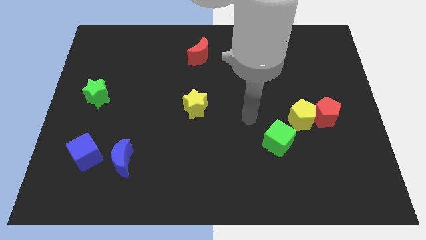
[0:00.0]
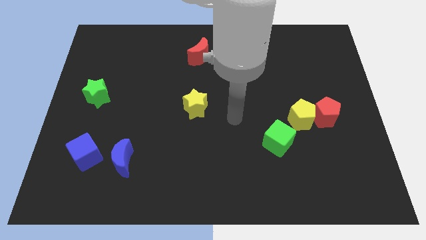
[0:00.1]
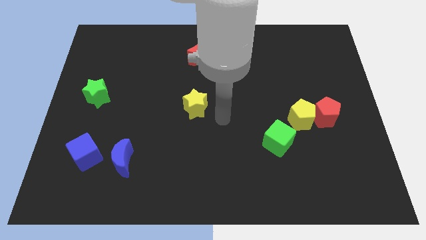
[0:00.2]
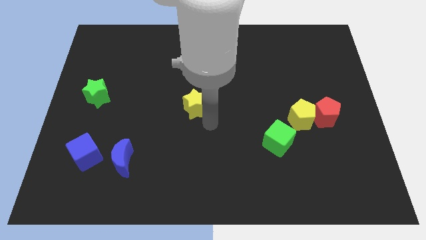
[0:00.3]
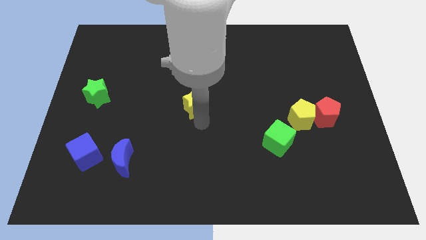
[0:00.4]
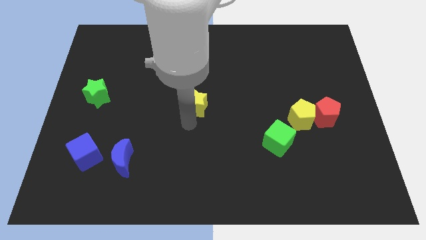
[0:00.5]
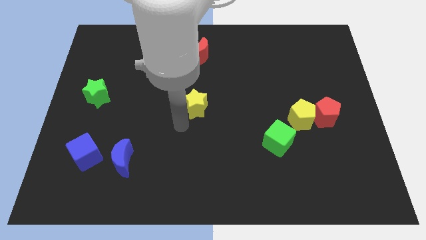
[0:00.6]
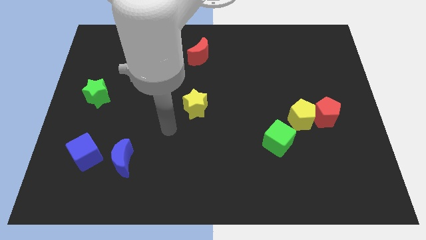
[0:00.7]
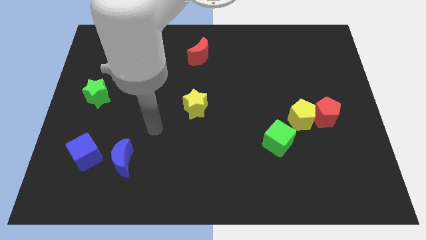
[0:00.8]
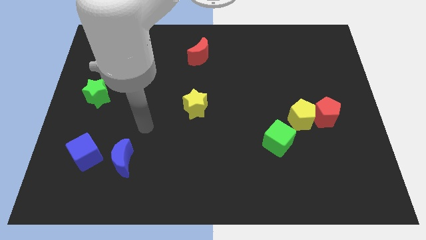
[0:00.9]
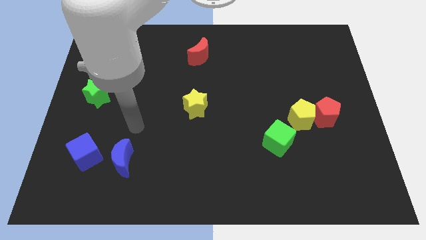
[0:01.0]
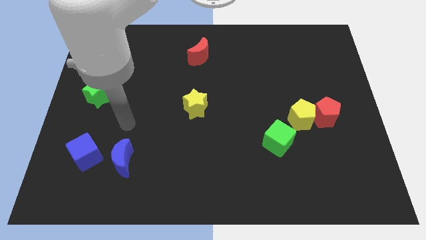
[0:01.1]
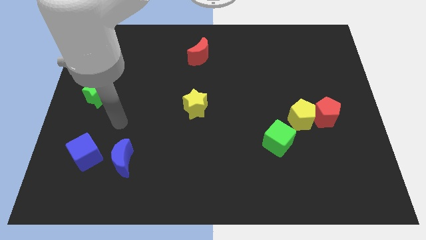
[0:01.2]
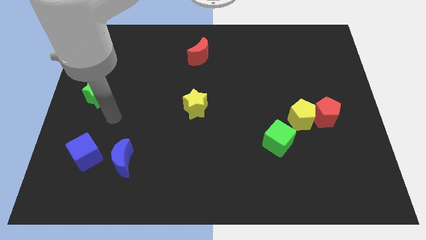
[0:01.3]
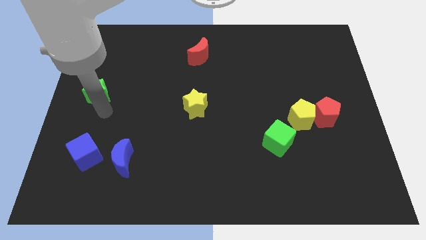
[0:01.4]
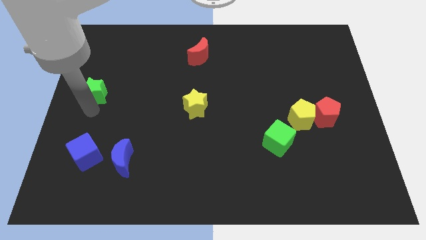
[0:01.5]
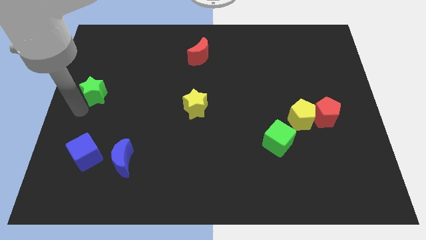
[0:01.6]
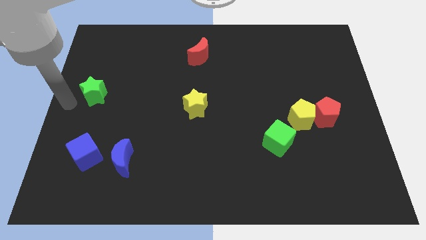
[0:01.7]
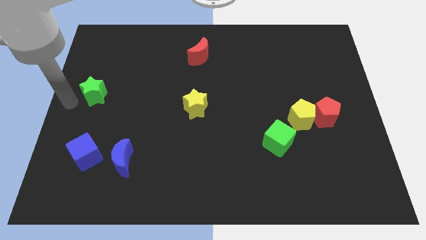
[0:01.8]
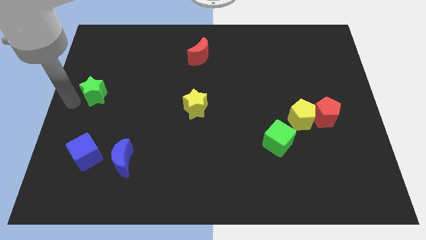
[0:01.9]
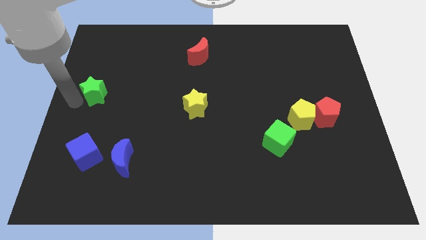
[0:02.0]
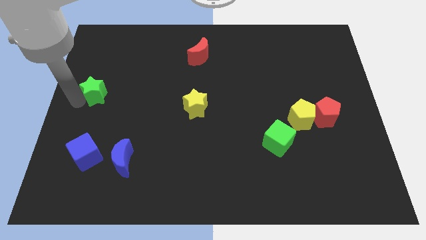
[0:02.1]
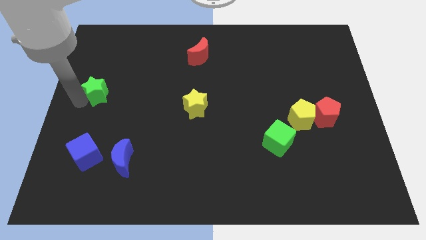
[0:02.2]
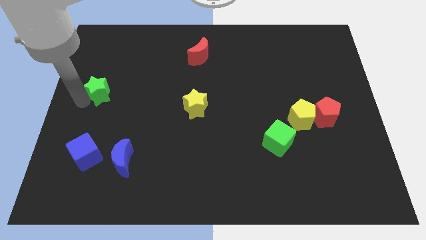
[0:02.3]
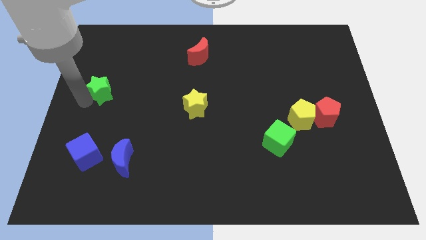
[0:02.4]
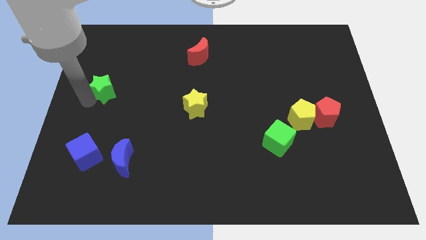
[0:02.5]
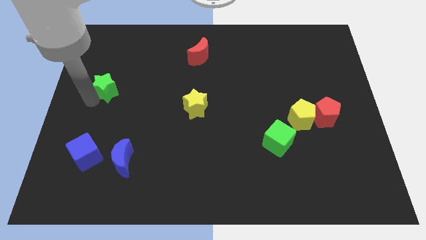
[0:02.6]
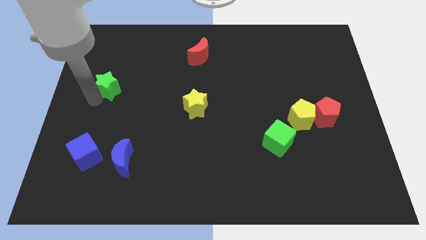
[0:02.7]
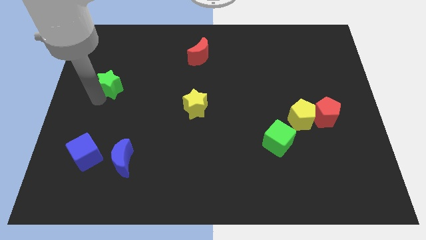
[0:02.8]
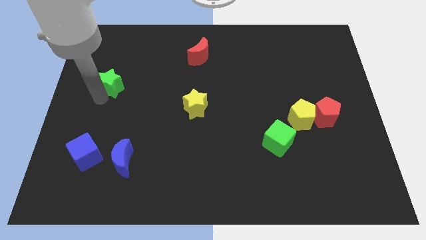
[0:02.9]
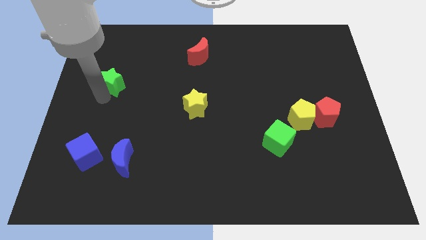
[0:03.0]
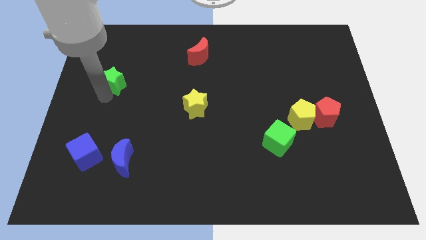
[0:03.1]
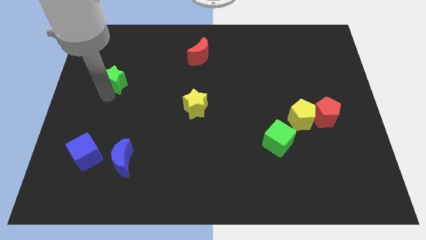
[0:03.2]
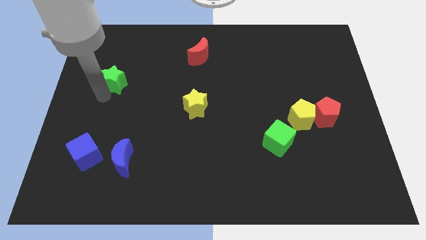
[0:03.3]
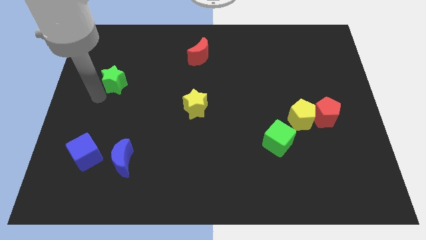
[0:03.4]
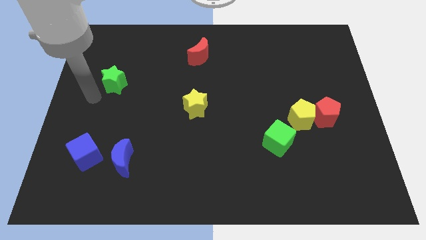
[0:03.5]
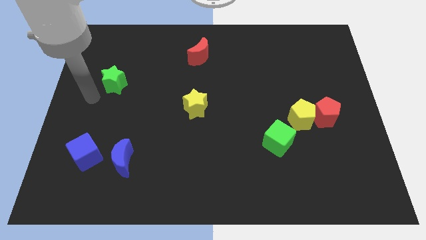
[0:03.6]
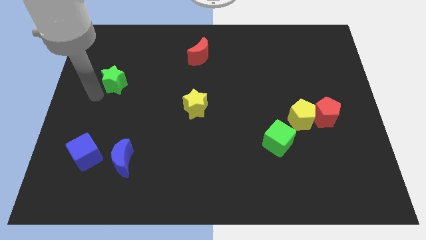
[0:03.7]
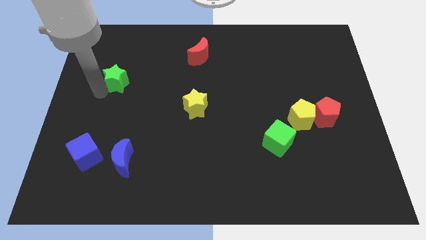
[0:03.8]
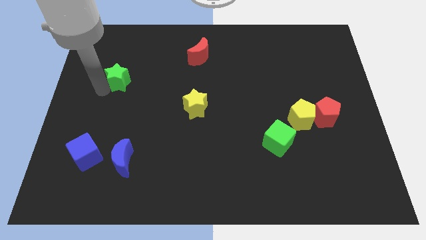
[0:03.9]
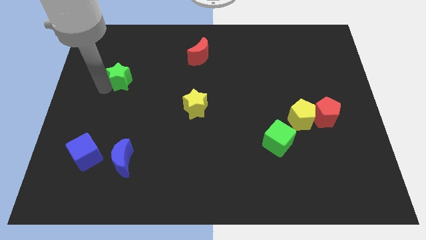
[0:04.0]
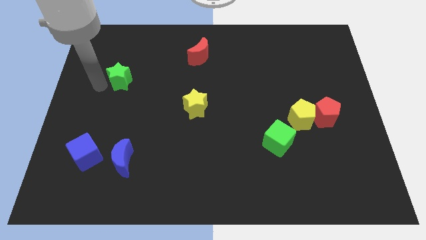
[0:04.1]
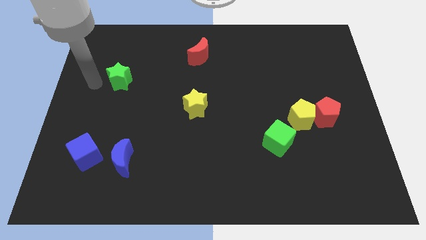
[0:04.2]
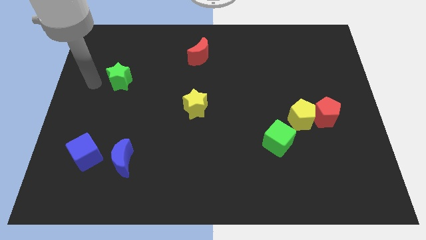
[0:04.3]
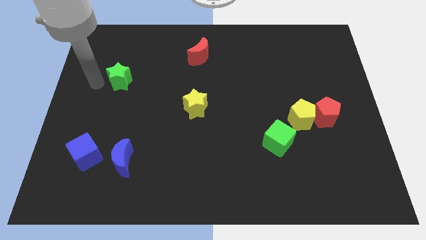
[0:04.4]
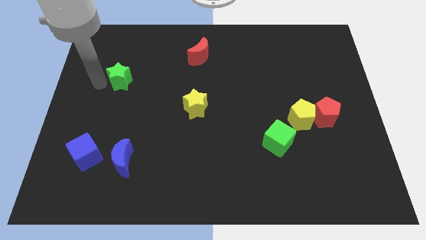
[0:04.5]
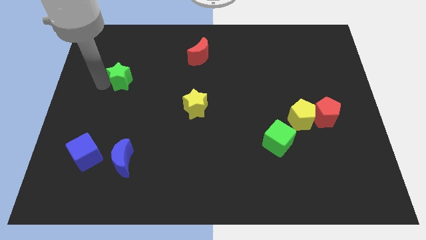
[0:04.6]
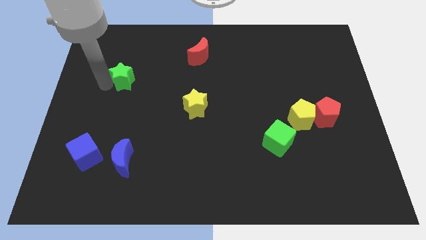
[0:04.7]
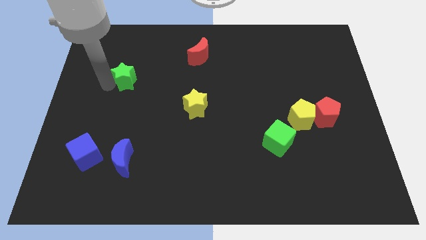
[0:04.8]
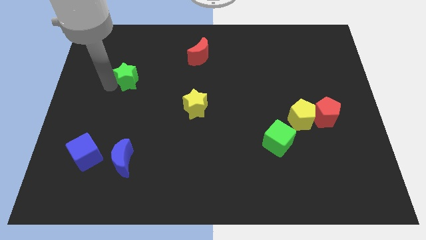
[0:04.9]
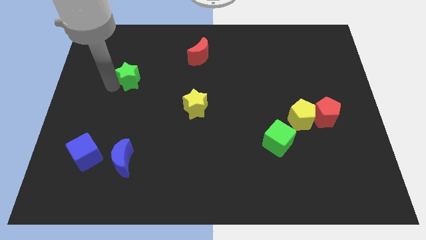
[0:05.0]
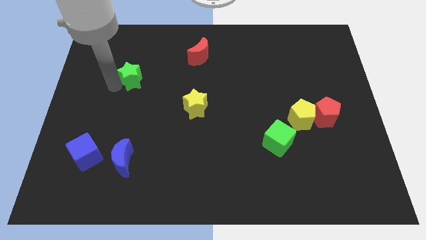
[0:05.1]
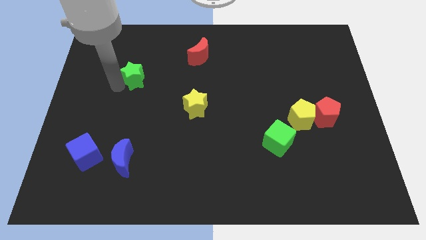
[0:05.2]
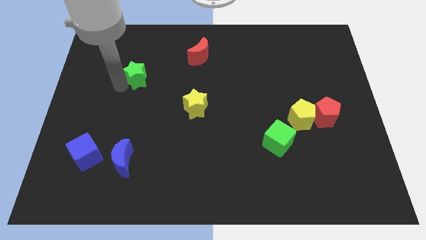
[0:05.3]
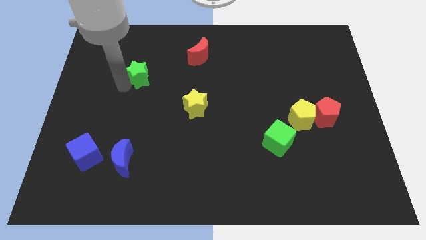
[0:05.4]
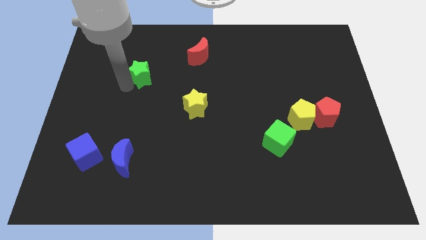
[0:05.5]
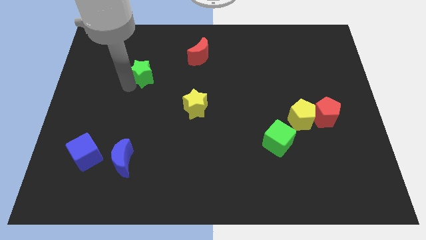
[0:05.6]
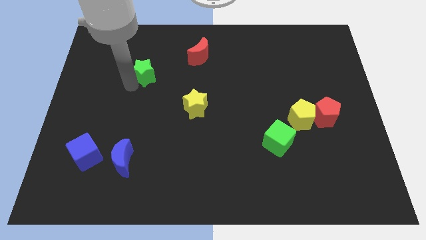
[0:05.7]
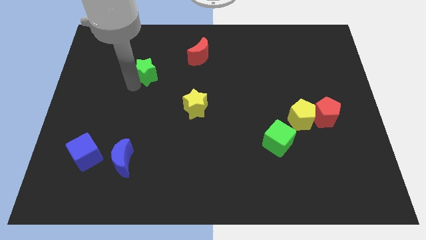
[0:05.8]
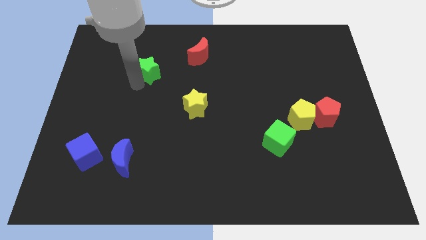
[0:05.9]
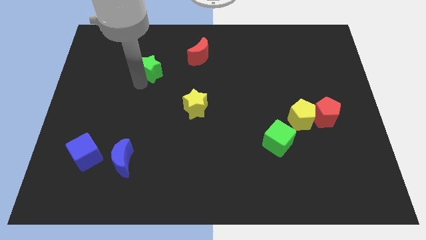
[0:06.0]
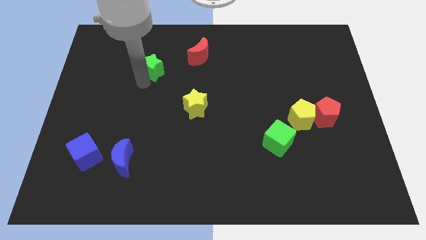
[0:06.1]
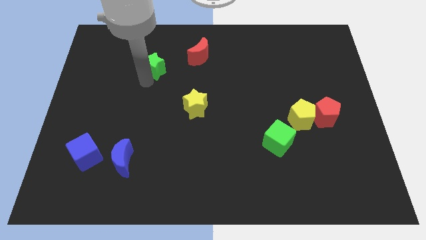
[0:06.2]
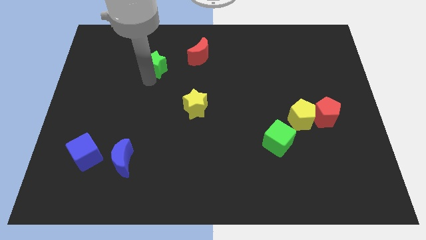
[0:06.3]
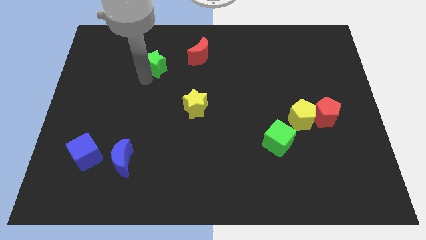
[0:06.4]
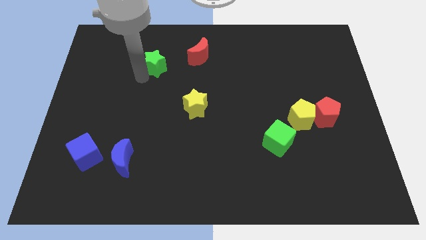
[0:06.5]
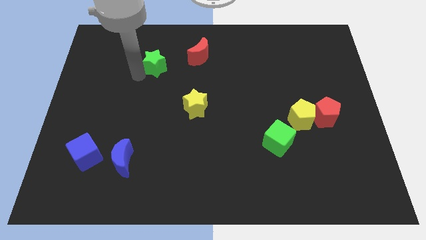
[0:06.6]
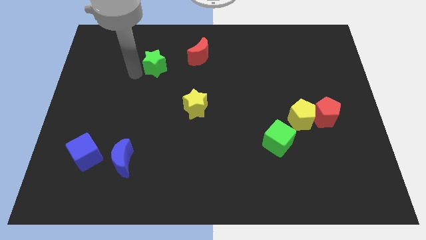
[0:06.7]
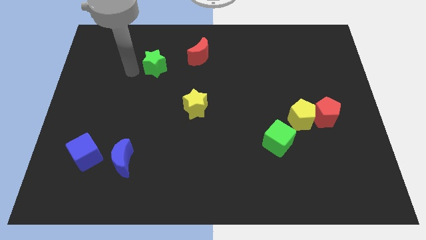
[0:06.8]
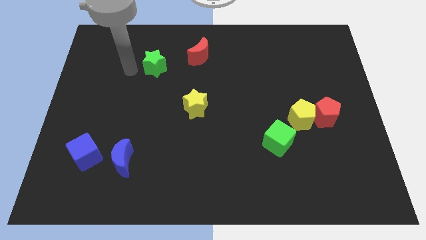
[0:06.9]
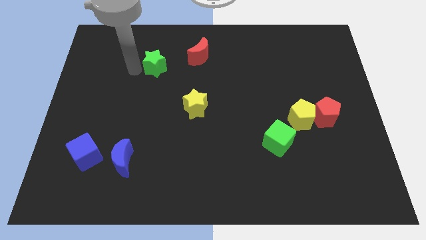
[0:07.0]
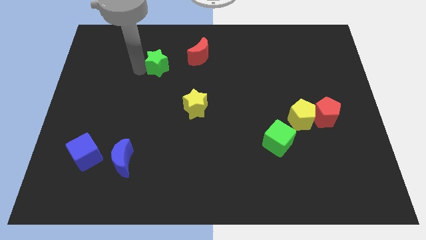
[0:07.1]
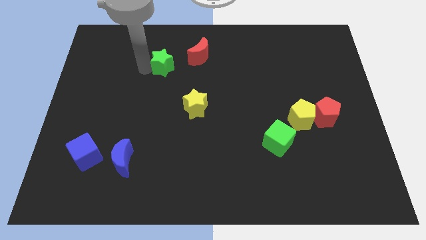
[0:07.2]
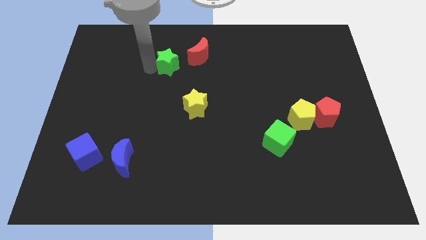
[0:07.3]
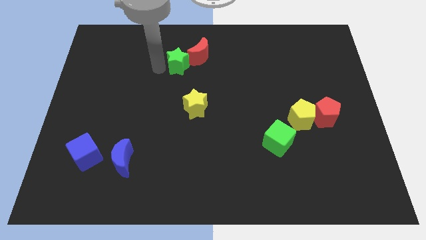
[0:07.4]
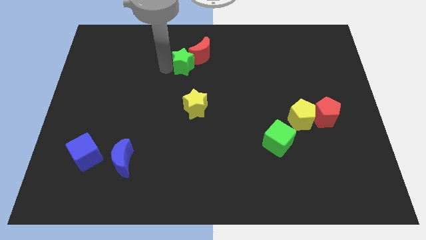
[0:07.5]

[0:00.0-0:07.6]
move the green star towards the red moon
